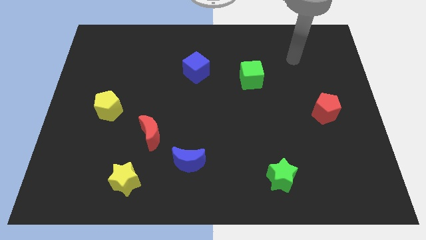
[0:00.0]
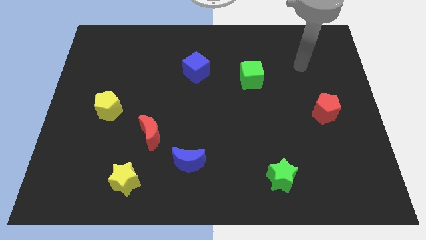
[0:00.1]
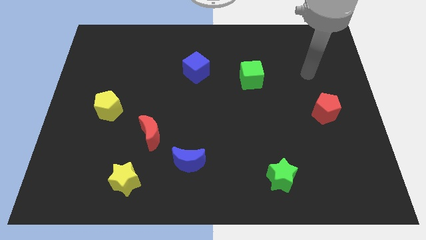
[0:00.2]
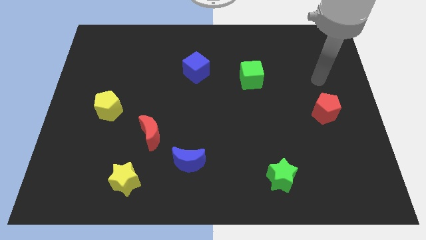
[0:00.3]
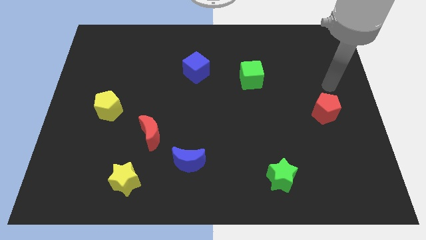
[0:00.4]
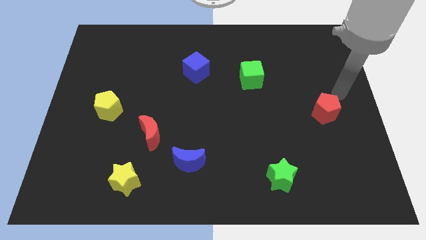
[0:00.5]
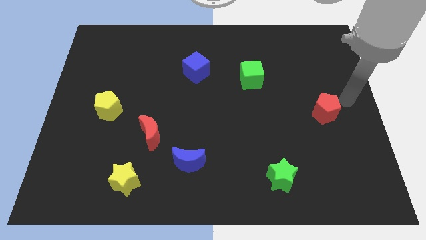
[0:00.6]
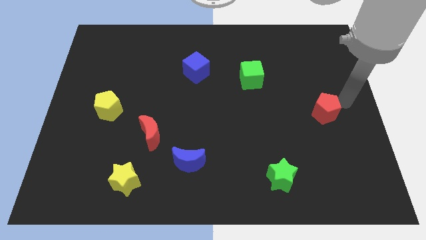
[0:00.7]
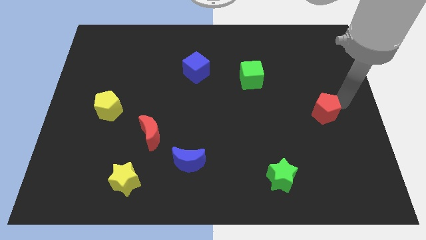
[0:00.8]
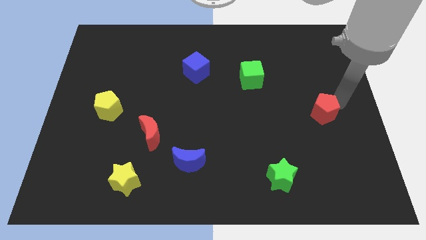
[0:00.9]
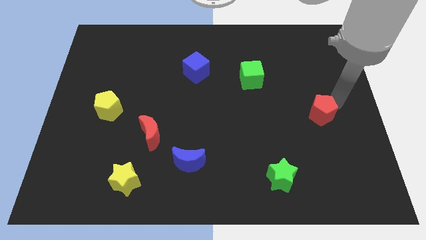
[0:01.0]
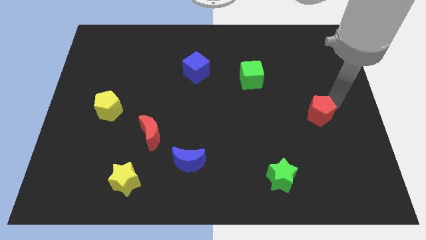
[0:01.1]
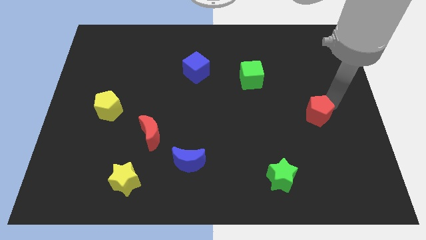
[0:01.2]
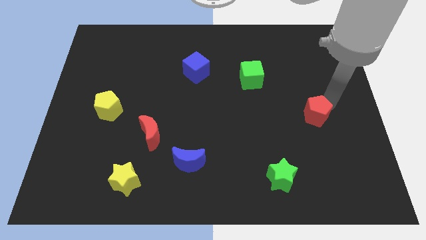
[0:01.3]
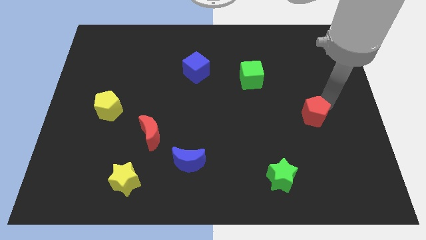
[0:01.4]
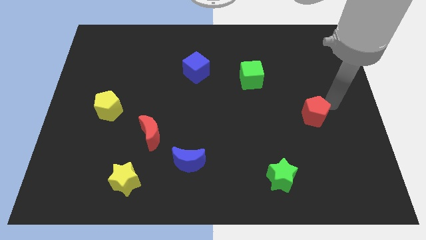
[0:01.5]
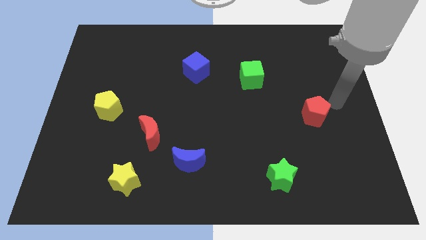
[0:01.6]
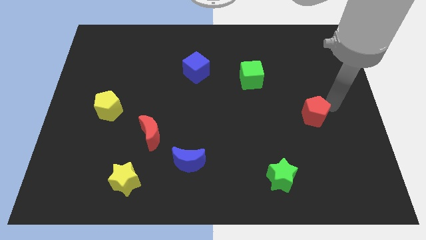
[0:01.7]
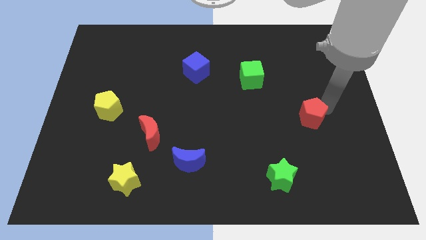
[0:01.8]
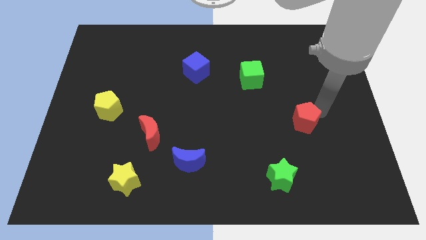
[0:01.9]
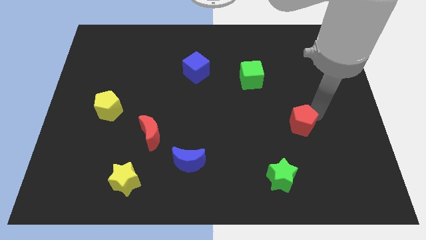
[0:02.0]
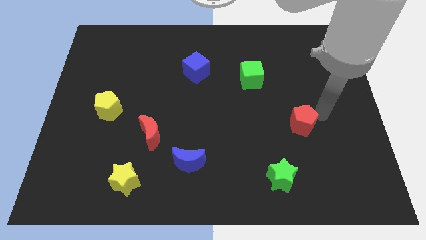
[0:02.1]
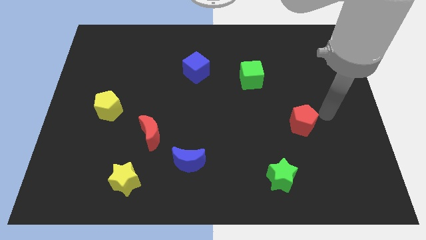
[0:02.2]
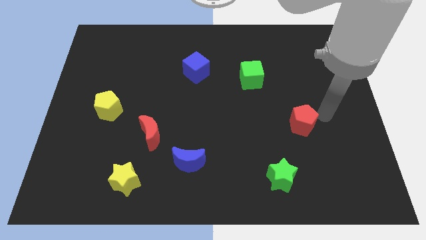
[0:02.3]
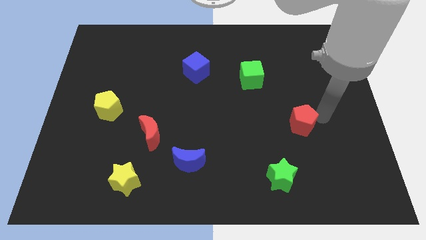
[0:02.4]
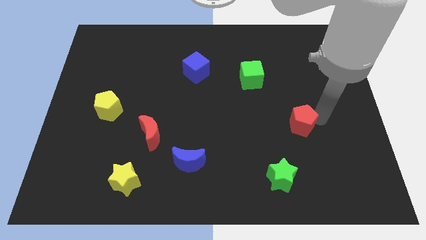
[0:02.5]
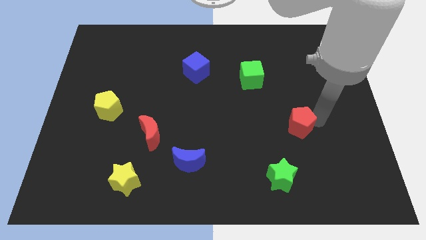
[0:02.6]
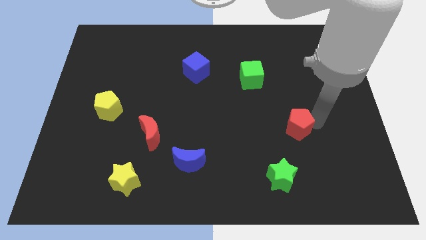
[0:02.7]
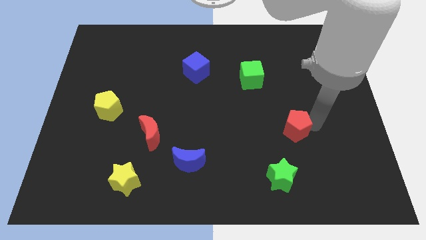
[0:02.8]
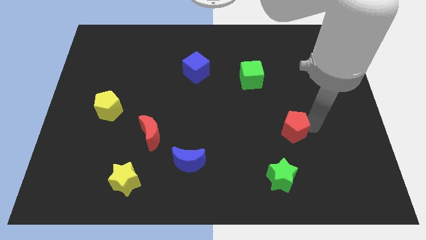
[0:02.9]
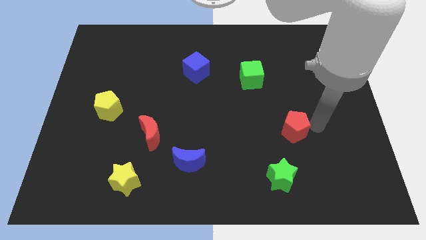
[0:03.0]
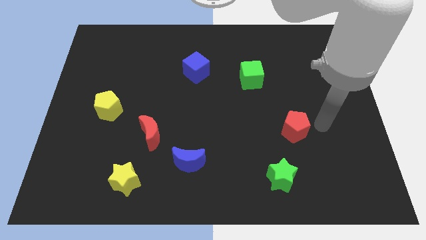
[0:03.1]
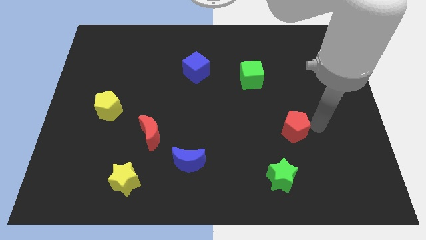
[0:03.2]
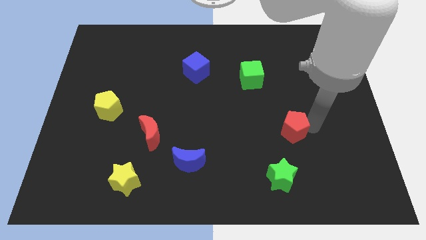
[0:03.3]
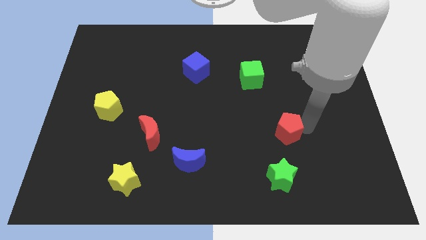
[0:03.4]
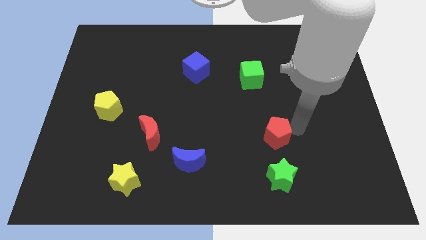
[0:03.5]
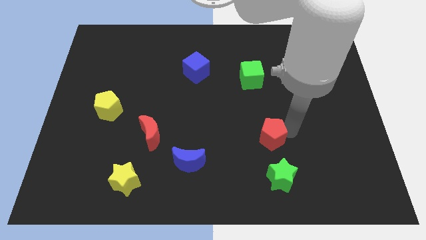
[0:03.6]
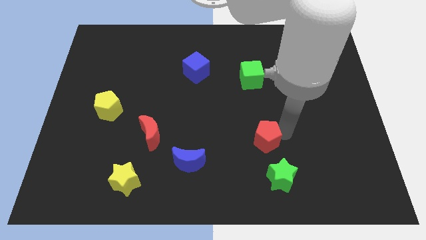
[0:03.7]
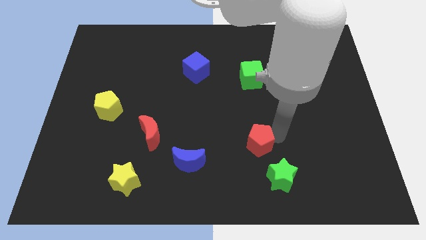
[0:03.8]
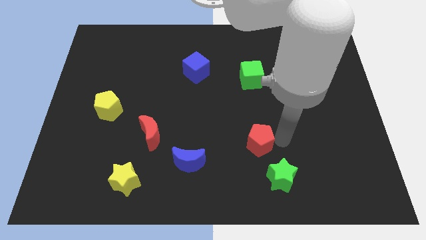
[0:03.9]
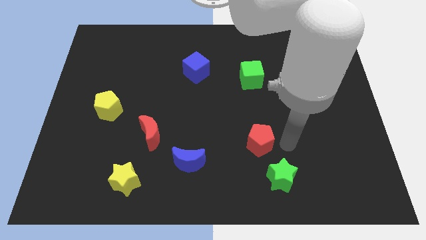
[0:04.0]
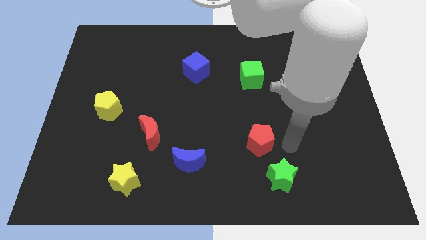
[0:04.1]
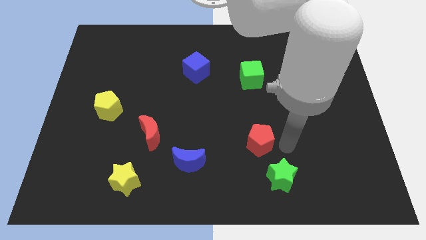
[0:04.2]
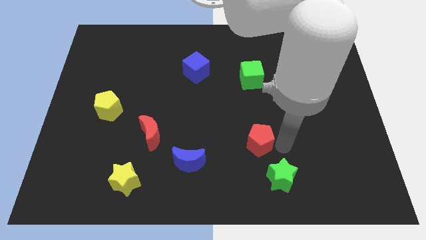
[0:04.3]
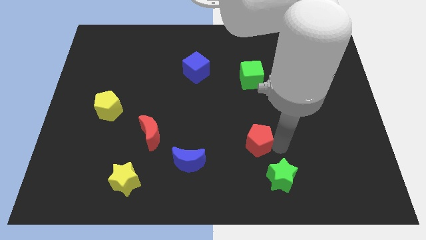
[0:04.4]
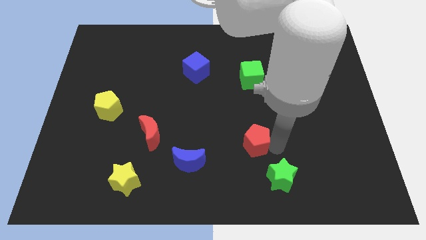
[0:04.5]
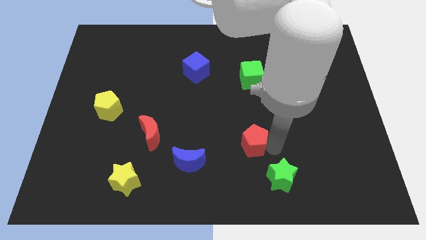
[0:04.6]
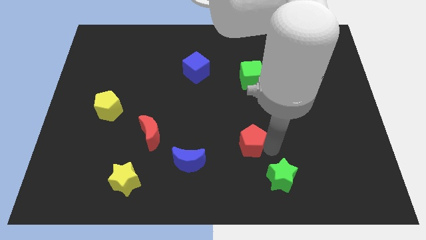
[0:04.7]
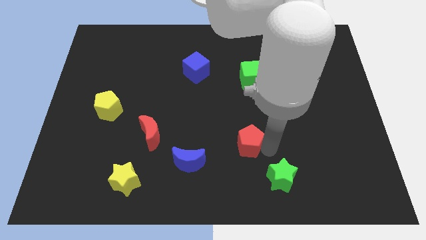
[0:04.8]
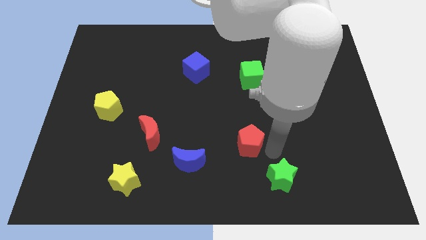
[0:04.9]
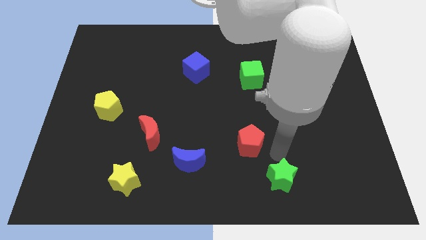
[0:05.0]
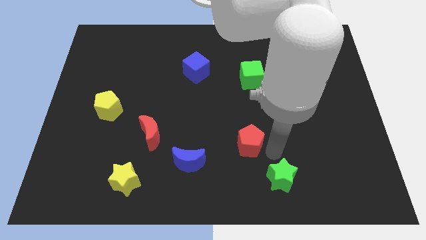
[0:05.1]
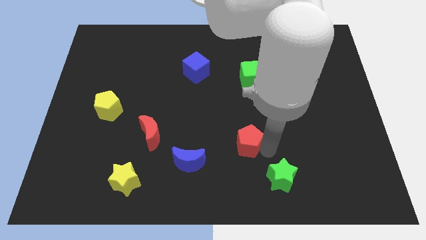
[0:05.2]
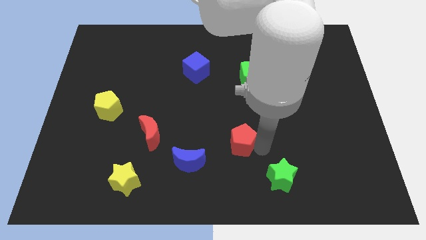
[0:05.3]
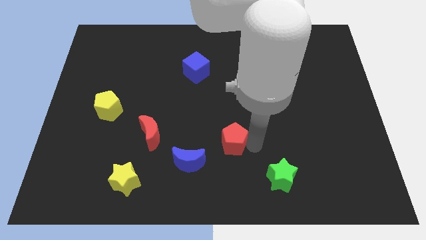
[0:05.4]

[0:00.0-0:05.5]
put the red pentagon to the top right of the blue moon

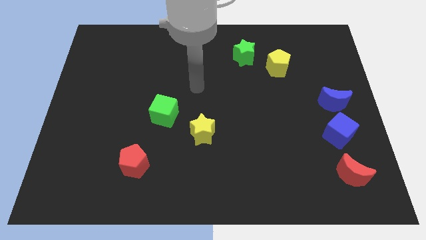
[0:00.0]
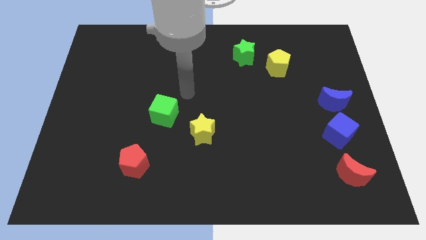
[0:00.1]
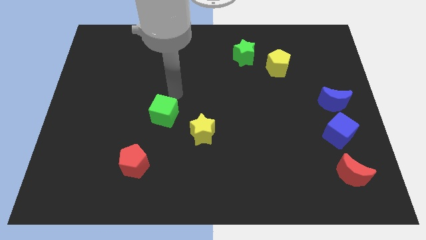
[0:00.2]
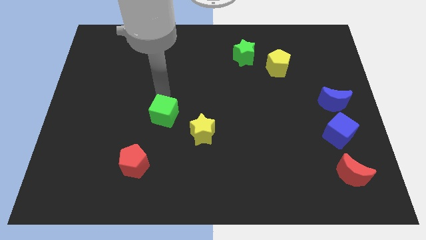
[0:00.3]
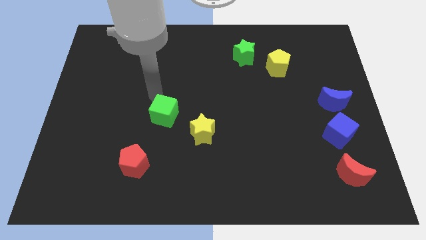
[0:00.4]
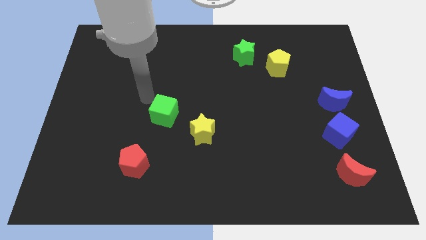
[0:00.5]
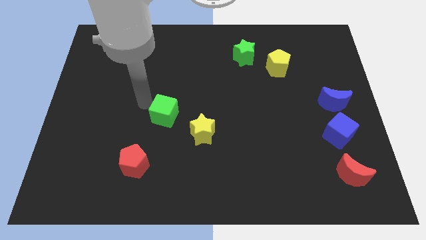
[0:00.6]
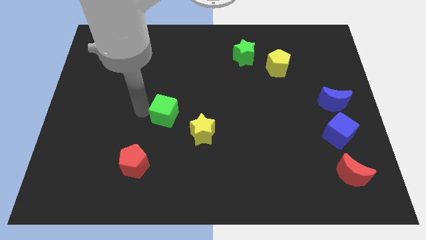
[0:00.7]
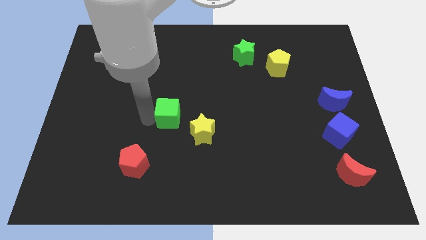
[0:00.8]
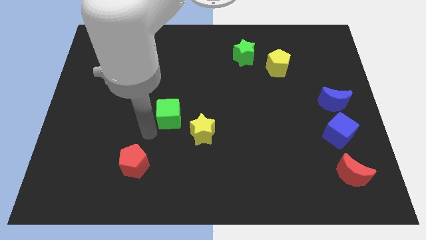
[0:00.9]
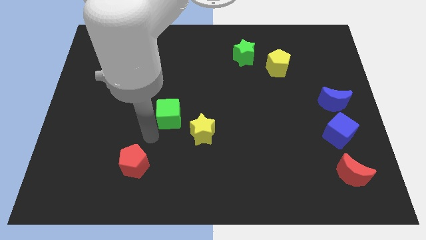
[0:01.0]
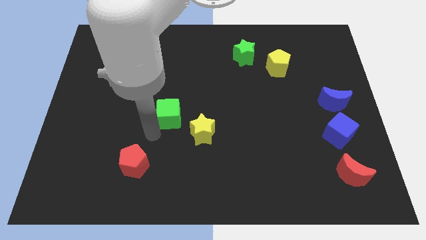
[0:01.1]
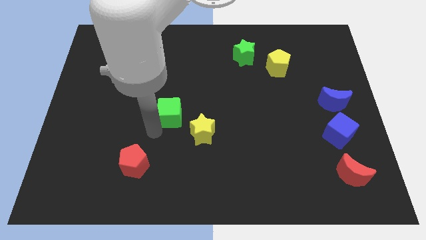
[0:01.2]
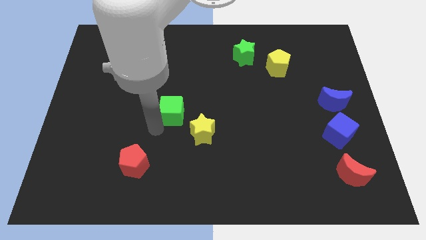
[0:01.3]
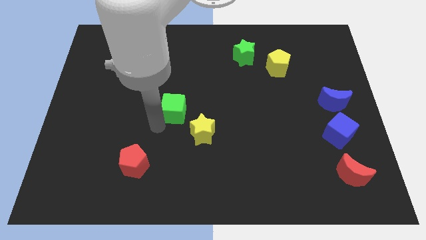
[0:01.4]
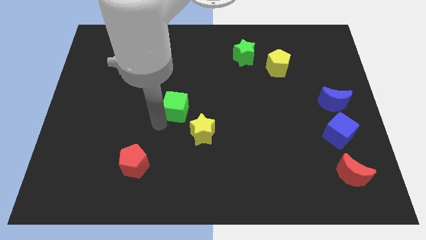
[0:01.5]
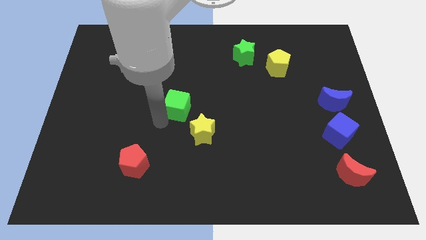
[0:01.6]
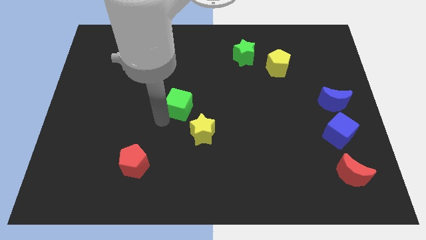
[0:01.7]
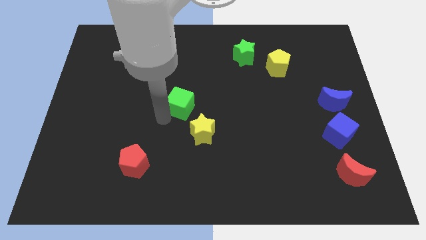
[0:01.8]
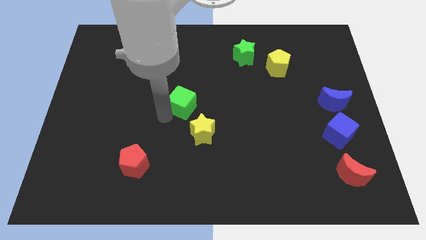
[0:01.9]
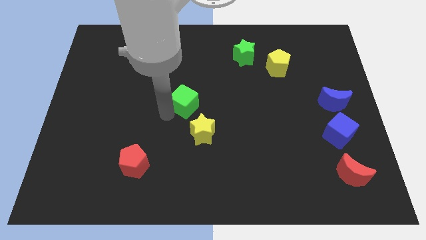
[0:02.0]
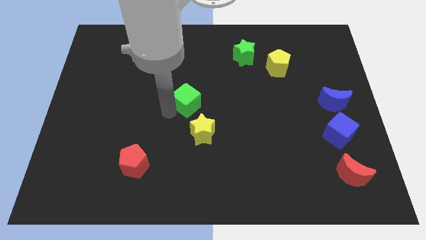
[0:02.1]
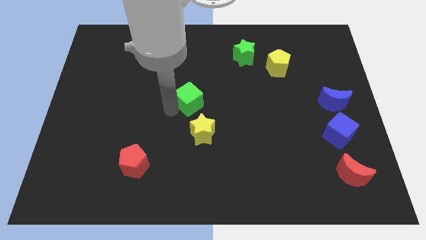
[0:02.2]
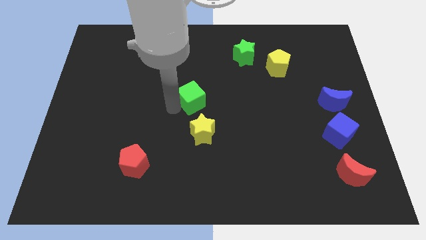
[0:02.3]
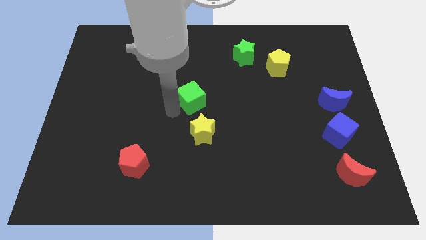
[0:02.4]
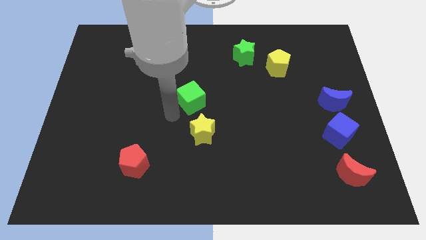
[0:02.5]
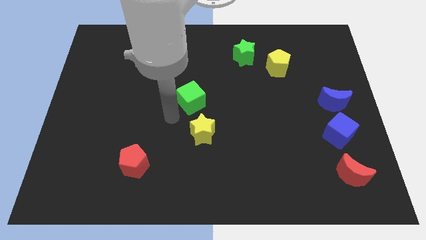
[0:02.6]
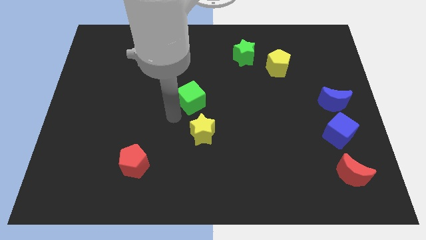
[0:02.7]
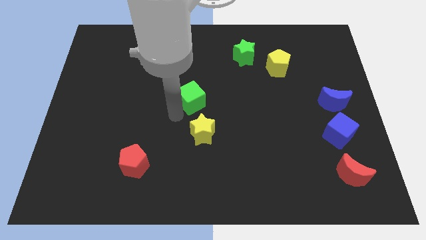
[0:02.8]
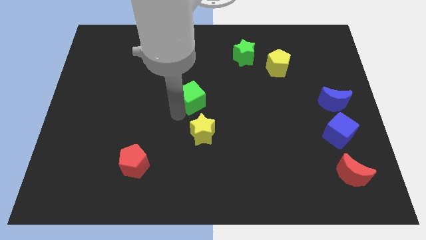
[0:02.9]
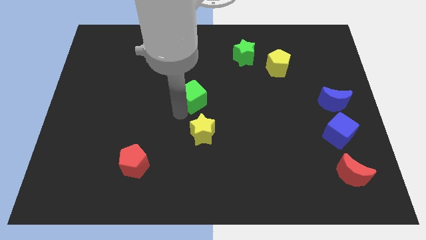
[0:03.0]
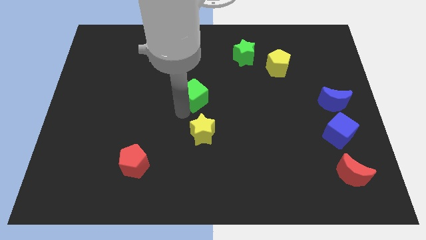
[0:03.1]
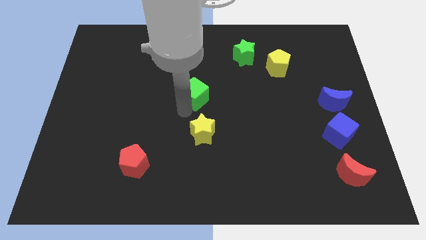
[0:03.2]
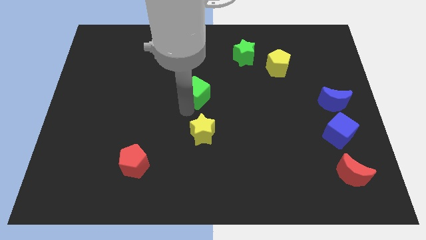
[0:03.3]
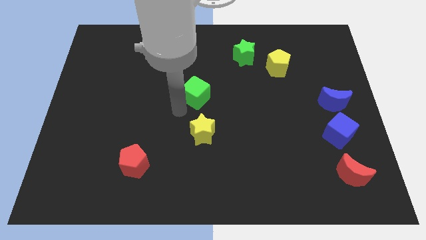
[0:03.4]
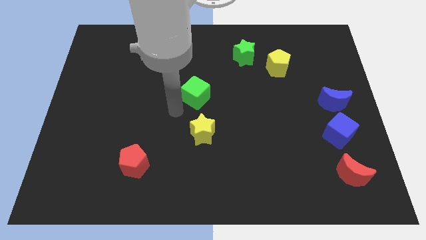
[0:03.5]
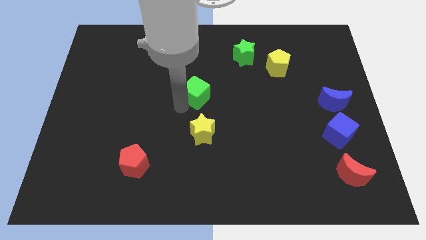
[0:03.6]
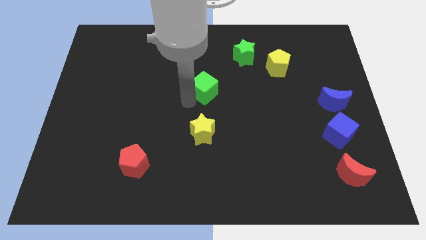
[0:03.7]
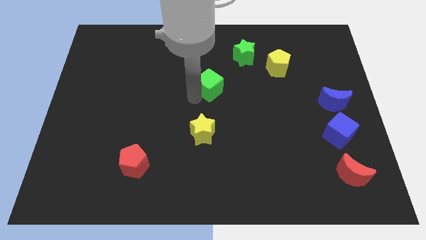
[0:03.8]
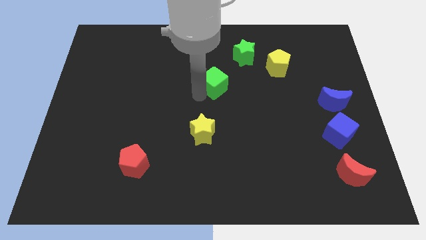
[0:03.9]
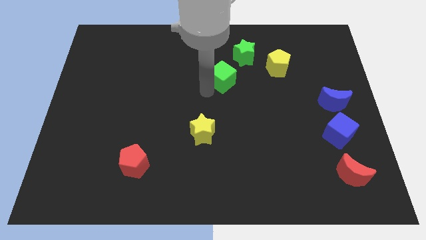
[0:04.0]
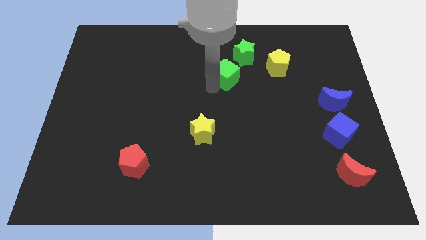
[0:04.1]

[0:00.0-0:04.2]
put the green cube to the left of the yellow pentagon
